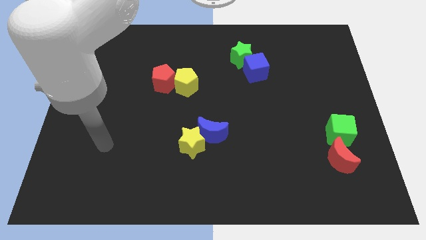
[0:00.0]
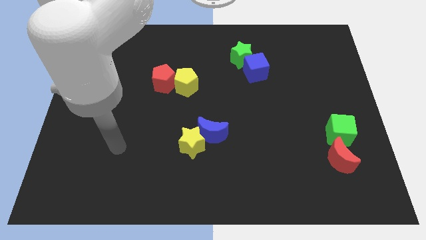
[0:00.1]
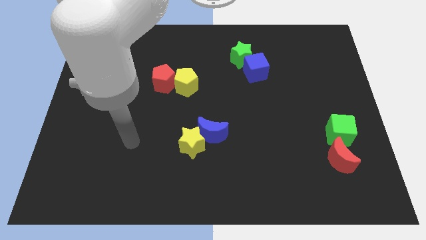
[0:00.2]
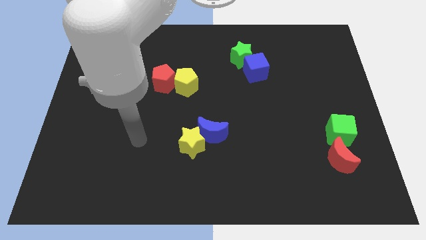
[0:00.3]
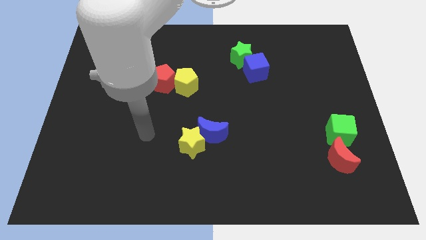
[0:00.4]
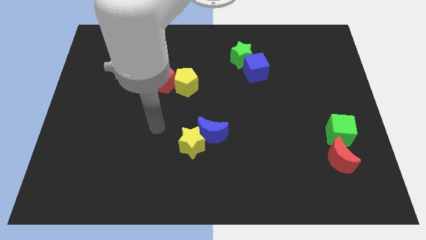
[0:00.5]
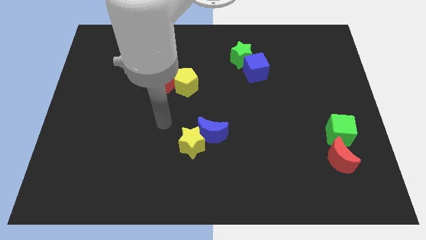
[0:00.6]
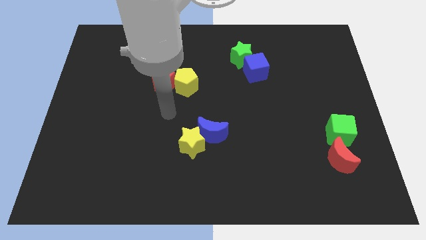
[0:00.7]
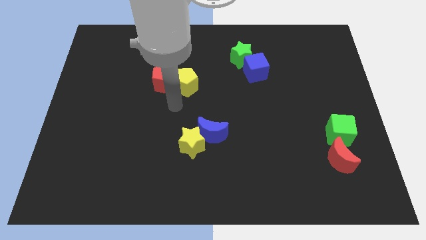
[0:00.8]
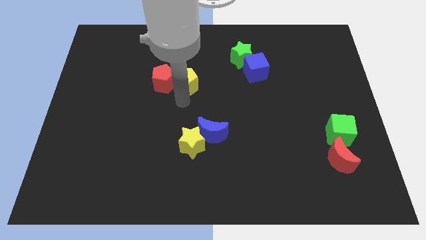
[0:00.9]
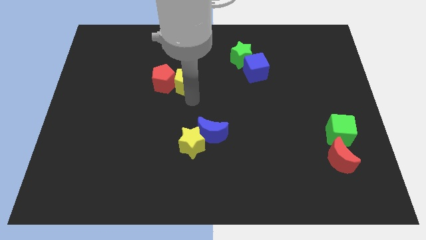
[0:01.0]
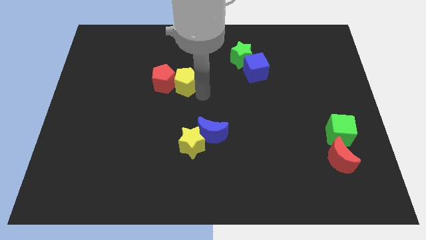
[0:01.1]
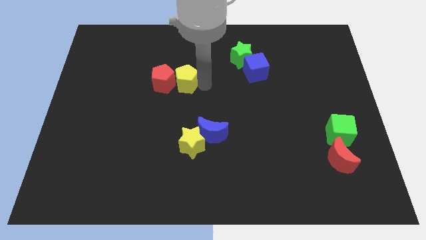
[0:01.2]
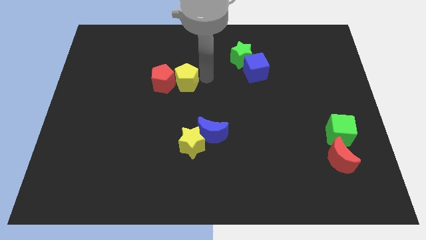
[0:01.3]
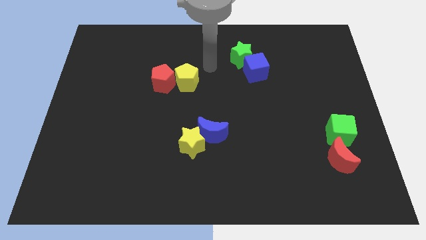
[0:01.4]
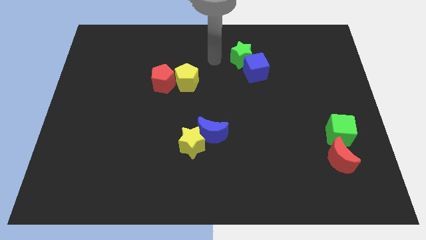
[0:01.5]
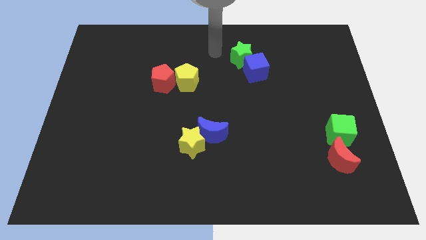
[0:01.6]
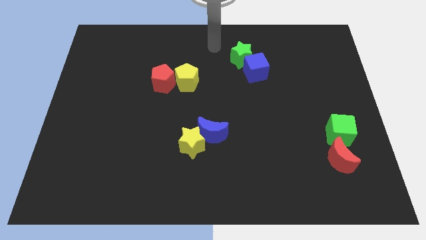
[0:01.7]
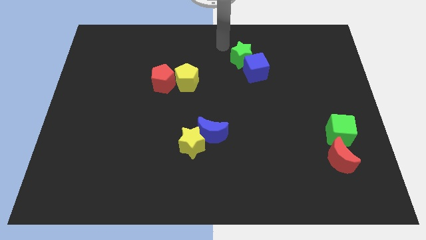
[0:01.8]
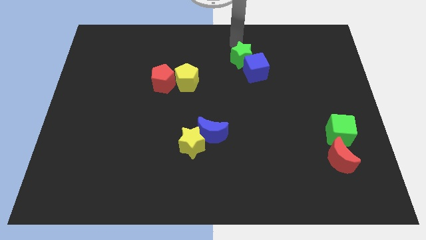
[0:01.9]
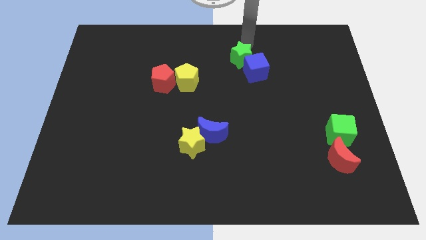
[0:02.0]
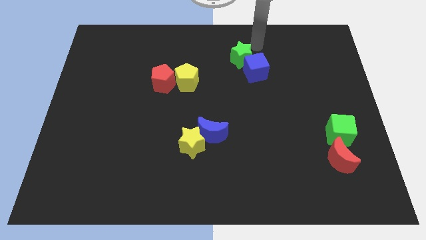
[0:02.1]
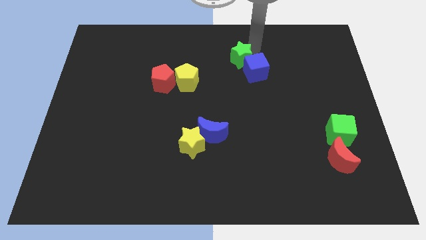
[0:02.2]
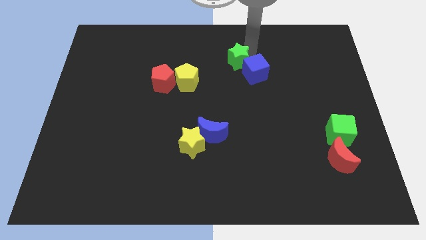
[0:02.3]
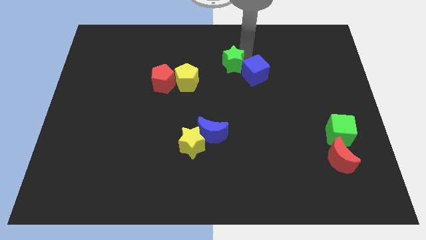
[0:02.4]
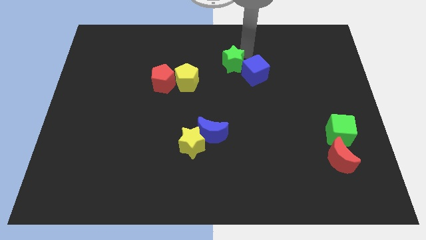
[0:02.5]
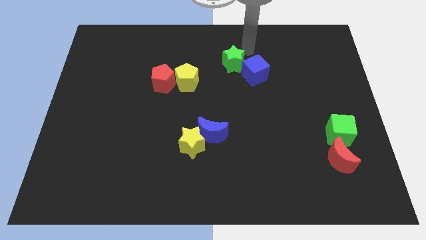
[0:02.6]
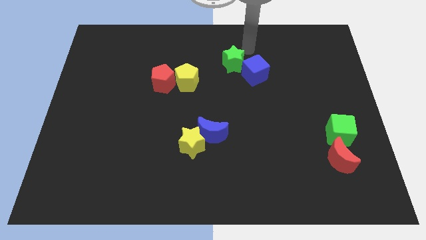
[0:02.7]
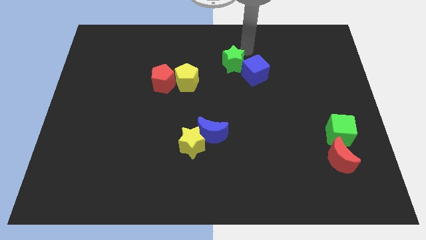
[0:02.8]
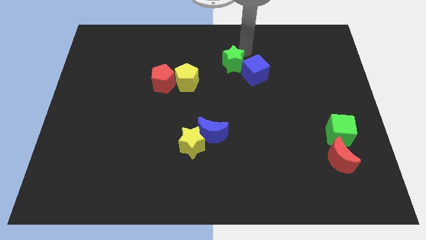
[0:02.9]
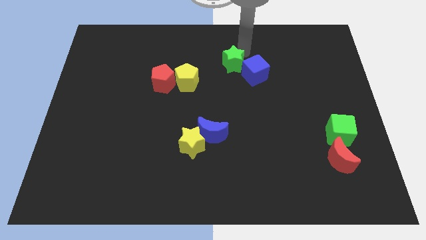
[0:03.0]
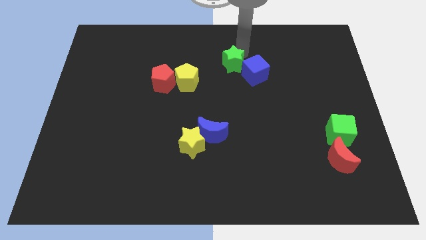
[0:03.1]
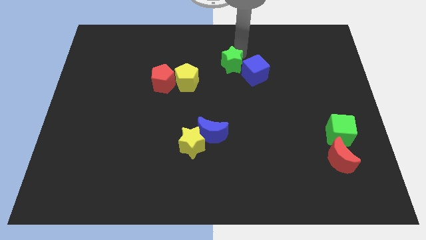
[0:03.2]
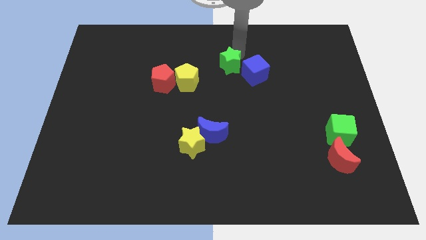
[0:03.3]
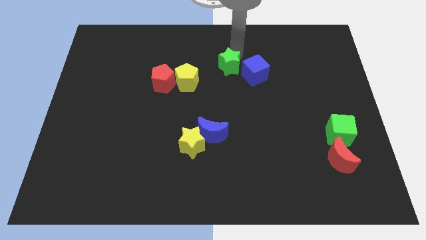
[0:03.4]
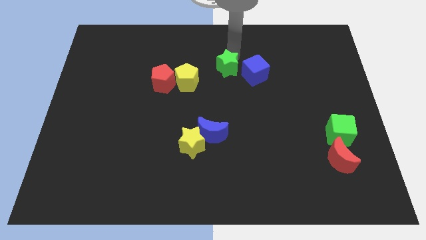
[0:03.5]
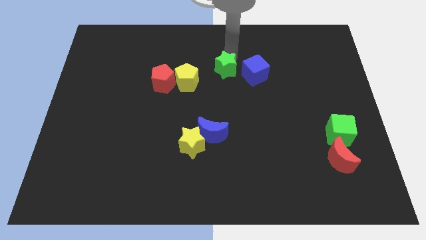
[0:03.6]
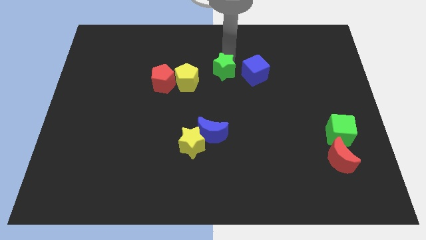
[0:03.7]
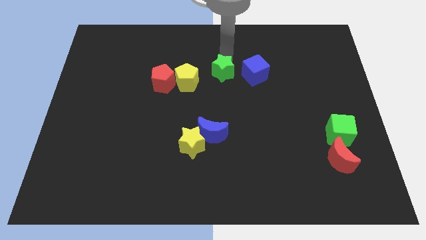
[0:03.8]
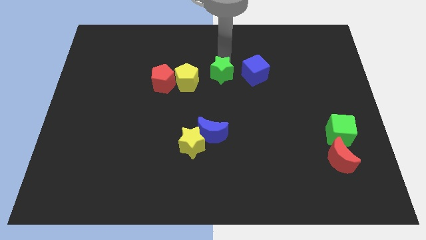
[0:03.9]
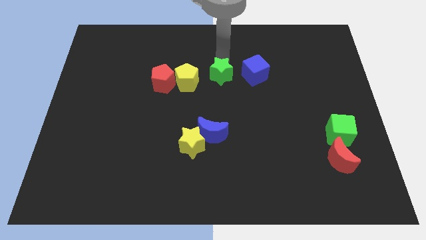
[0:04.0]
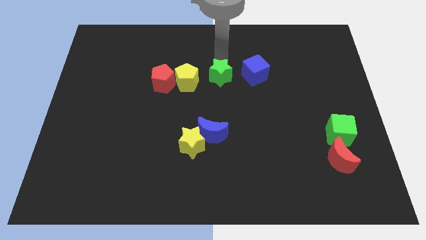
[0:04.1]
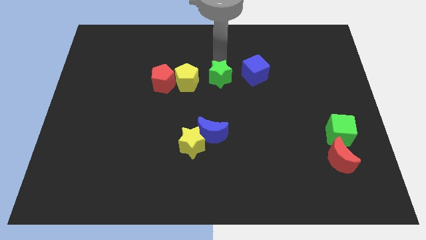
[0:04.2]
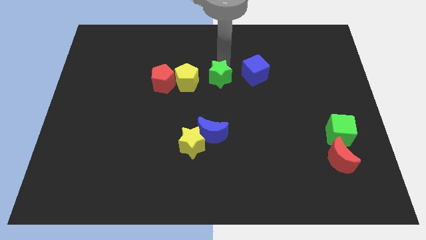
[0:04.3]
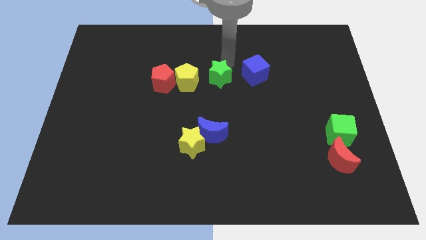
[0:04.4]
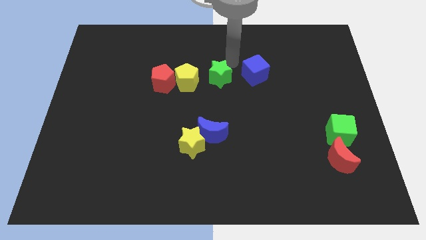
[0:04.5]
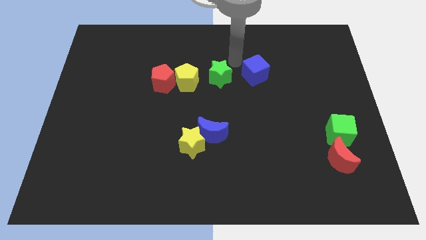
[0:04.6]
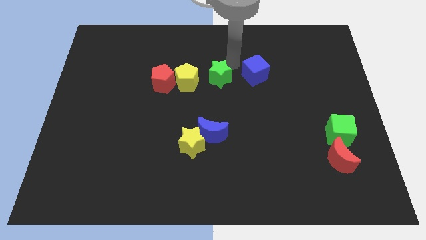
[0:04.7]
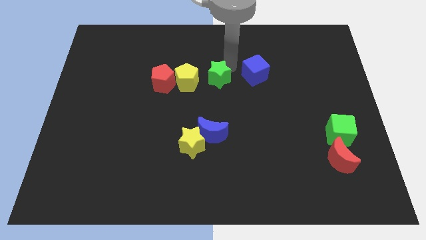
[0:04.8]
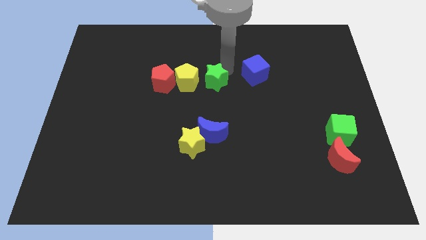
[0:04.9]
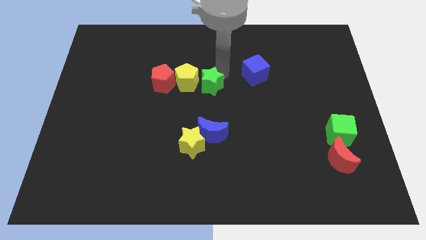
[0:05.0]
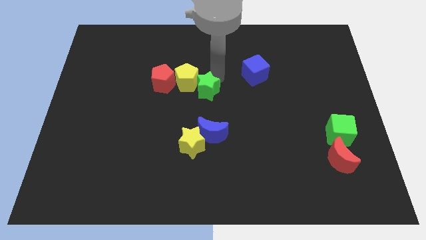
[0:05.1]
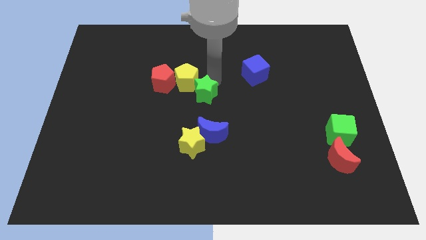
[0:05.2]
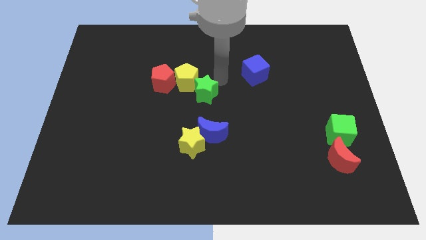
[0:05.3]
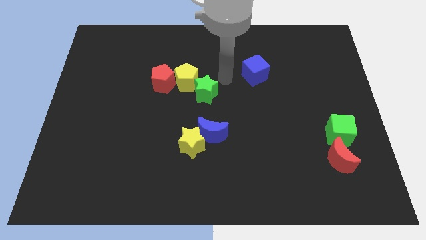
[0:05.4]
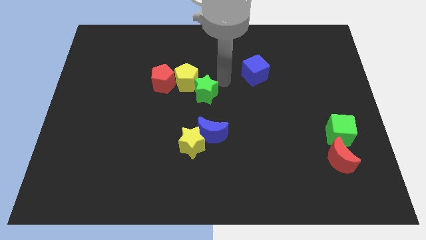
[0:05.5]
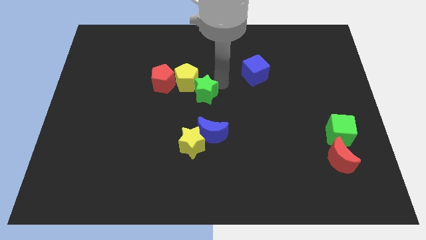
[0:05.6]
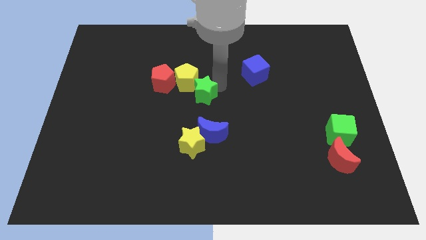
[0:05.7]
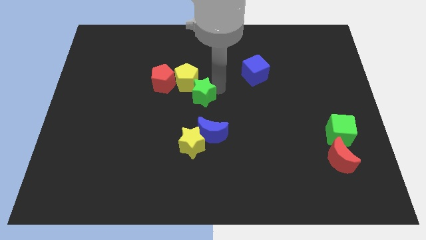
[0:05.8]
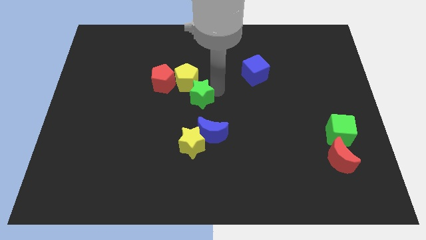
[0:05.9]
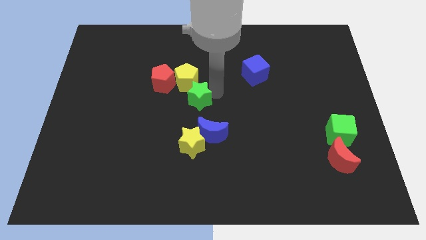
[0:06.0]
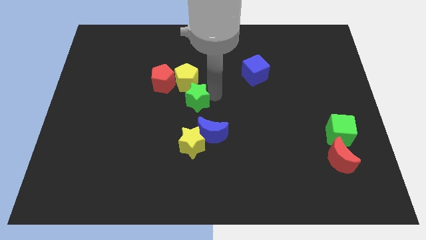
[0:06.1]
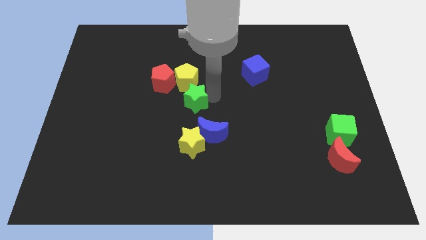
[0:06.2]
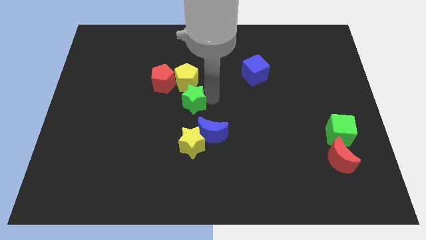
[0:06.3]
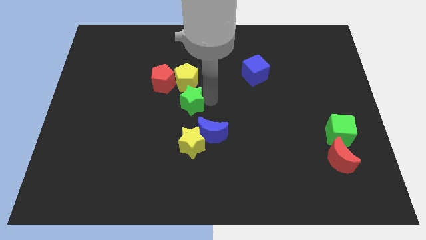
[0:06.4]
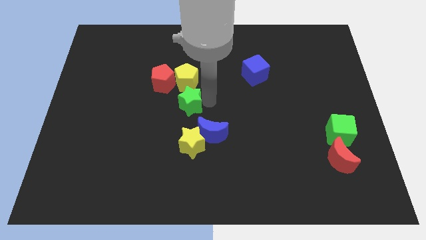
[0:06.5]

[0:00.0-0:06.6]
slide the green star downwards and then left

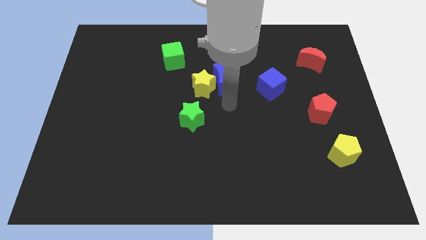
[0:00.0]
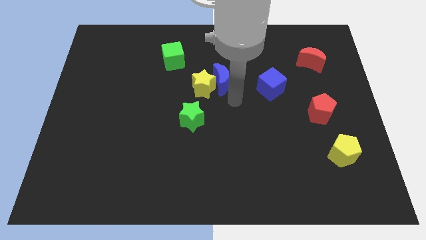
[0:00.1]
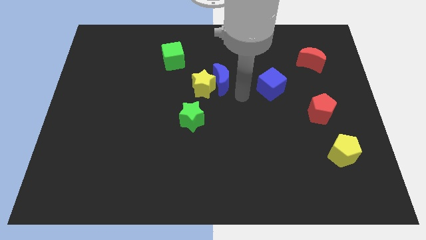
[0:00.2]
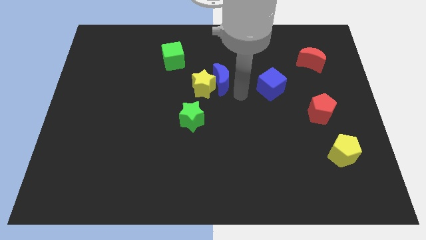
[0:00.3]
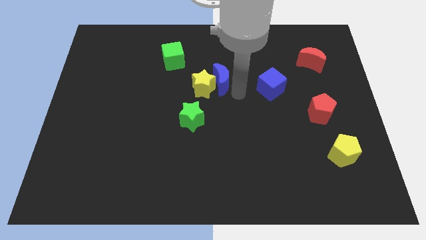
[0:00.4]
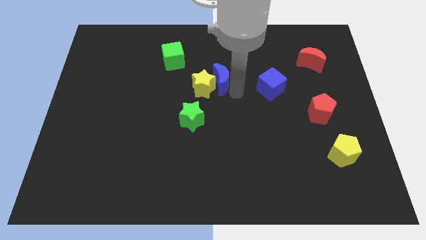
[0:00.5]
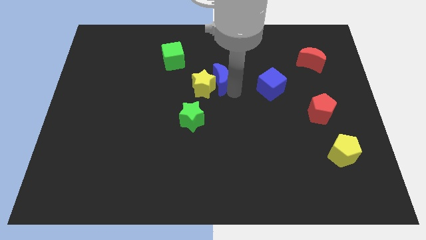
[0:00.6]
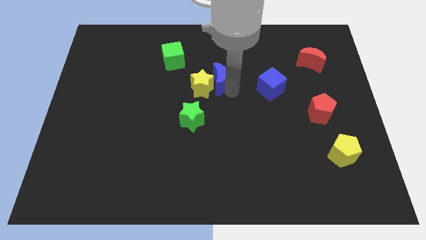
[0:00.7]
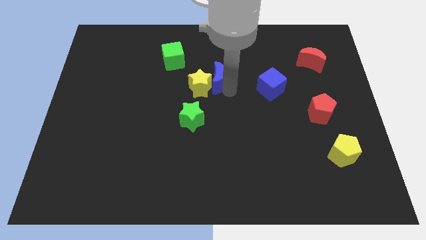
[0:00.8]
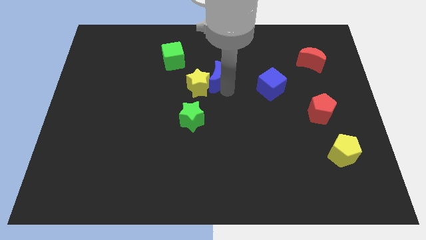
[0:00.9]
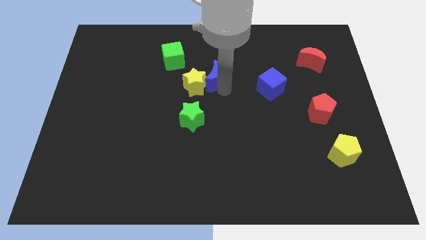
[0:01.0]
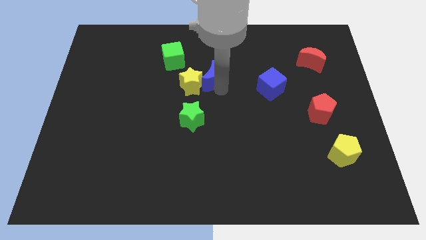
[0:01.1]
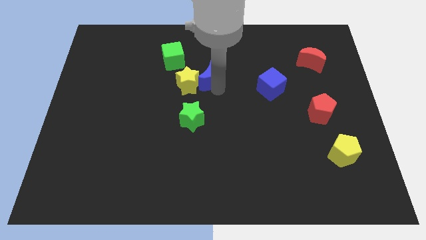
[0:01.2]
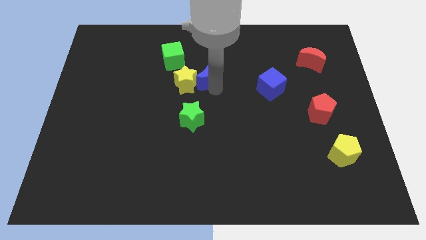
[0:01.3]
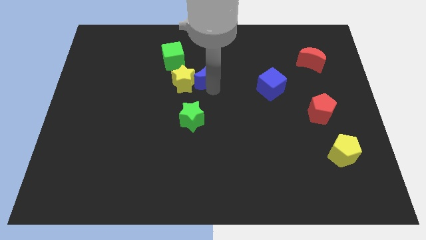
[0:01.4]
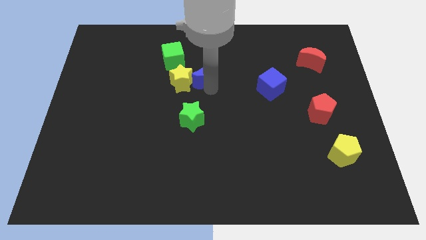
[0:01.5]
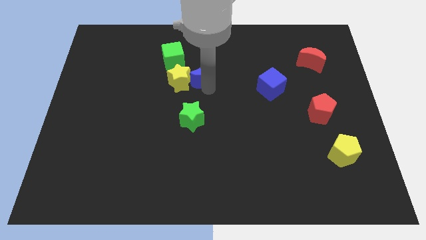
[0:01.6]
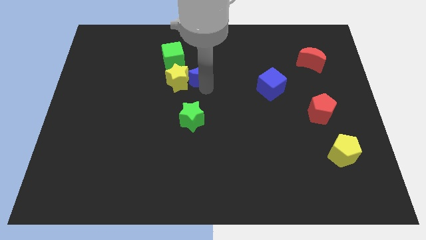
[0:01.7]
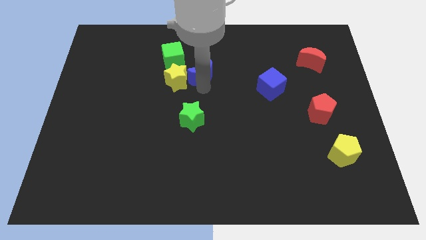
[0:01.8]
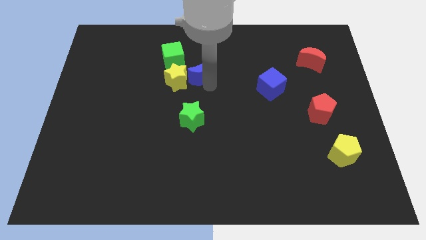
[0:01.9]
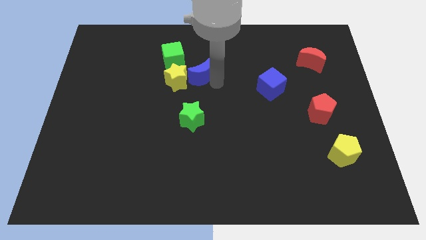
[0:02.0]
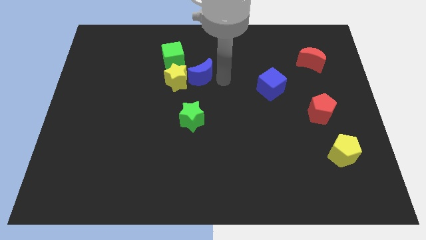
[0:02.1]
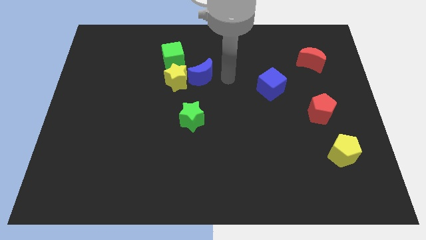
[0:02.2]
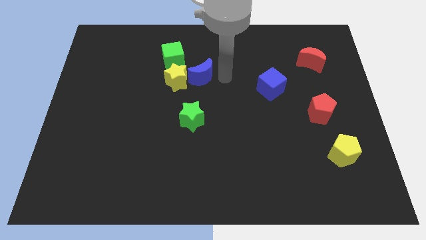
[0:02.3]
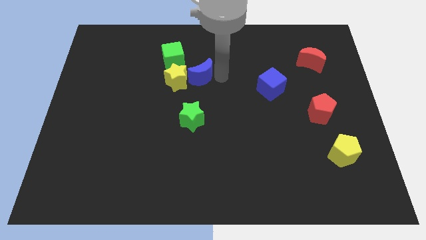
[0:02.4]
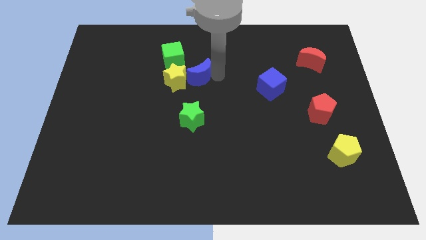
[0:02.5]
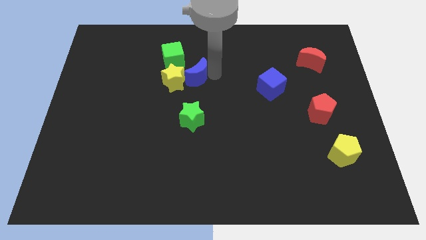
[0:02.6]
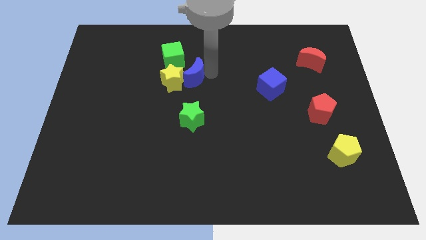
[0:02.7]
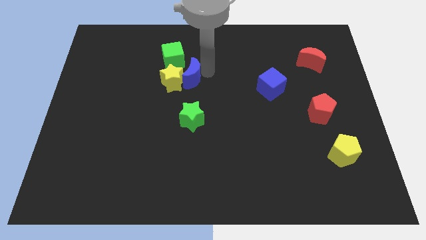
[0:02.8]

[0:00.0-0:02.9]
slide the blue moon a little bit left
